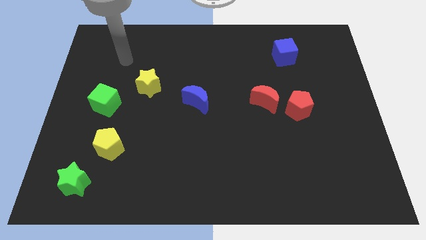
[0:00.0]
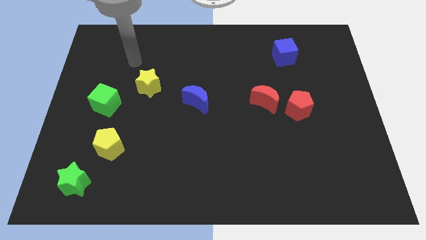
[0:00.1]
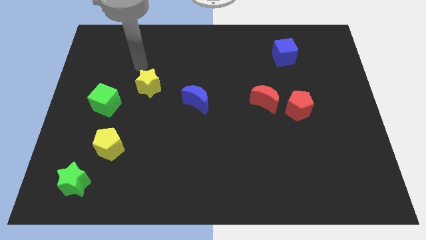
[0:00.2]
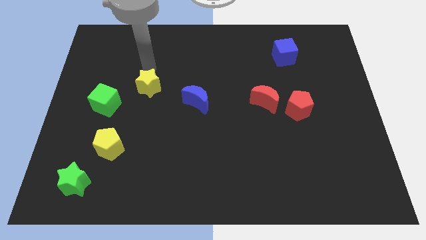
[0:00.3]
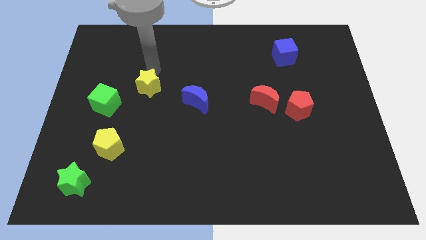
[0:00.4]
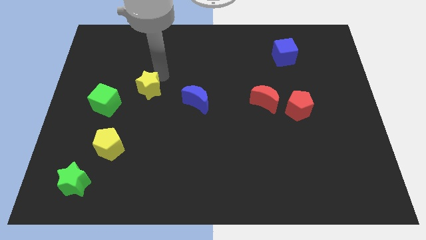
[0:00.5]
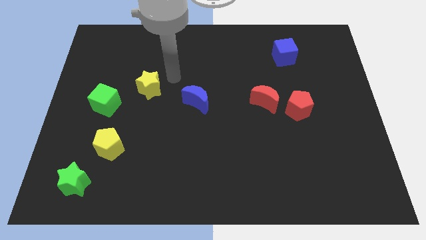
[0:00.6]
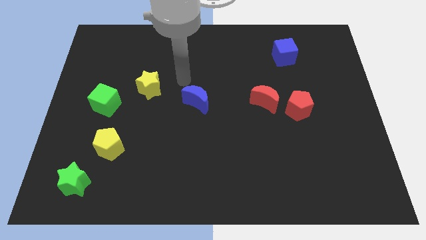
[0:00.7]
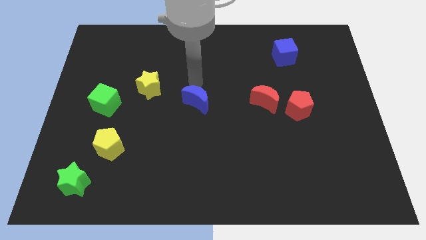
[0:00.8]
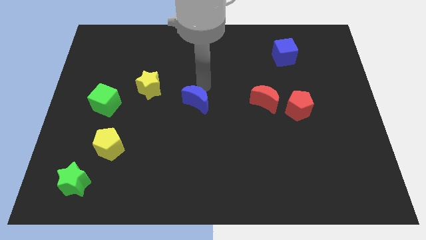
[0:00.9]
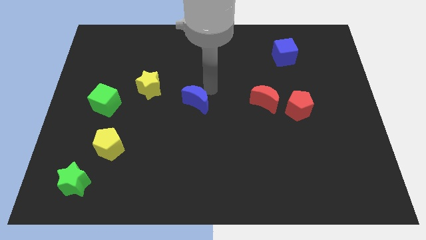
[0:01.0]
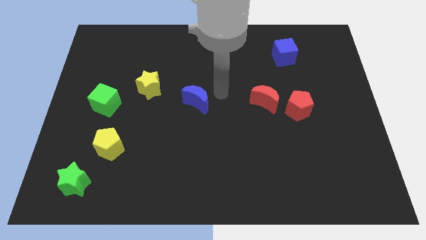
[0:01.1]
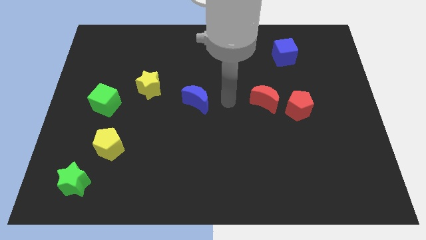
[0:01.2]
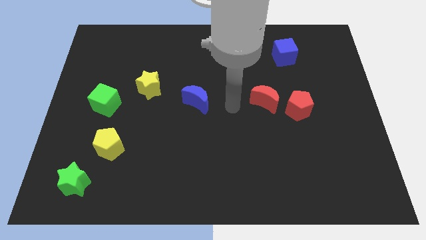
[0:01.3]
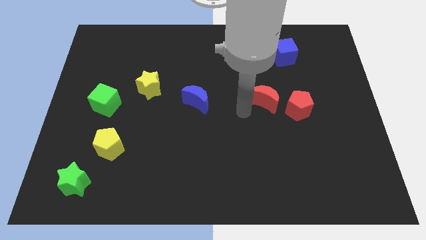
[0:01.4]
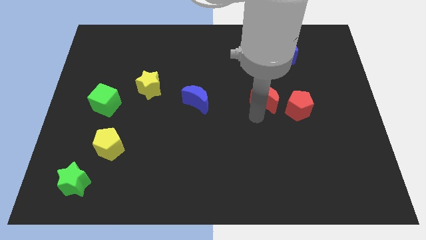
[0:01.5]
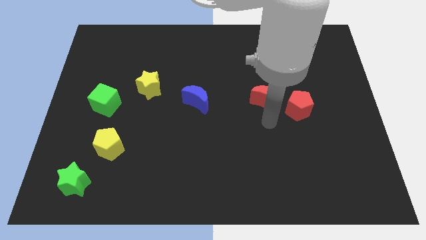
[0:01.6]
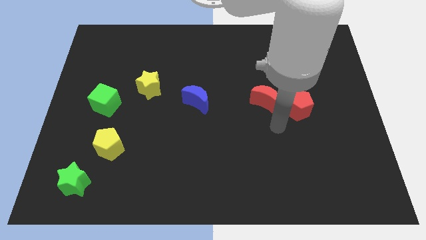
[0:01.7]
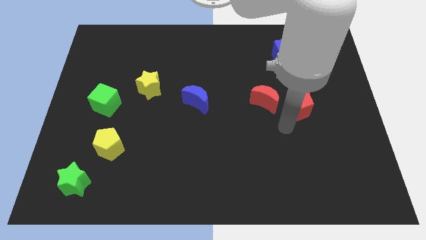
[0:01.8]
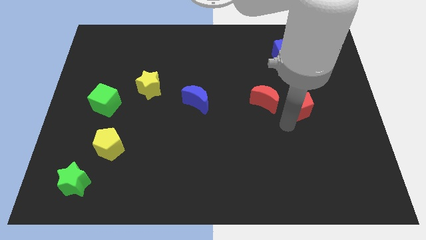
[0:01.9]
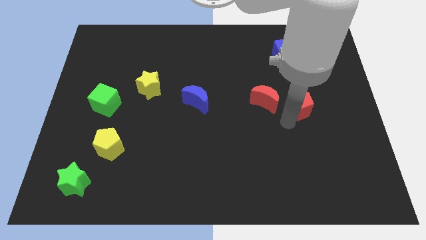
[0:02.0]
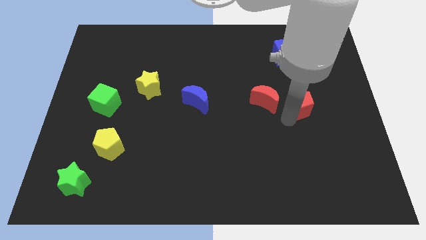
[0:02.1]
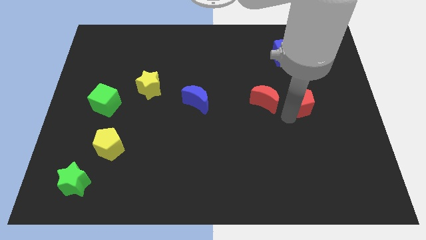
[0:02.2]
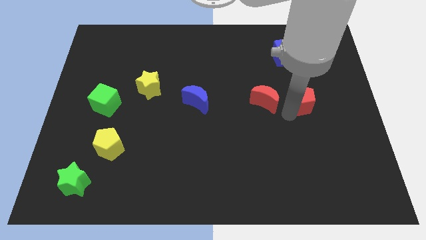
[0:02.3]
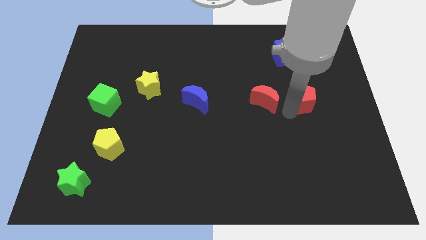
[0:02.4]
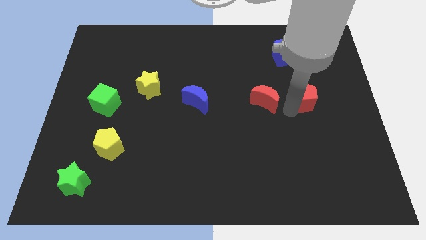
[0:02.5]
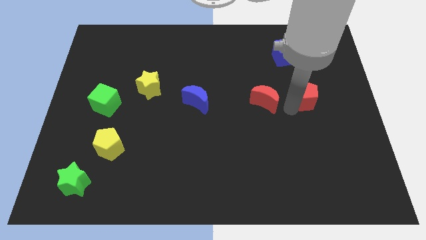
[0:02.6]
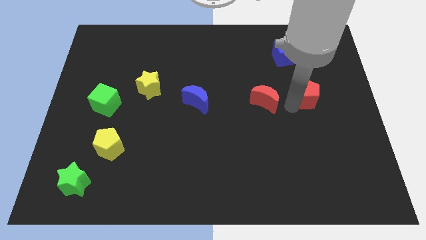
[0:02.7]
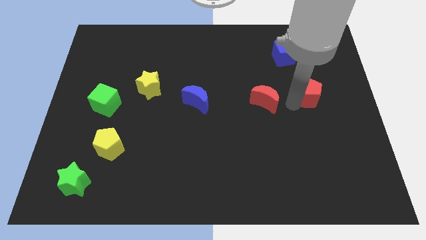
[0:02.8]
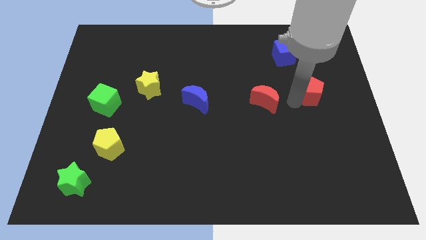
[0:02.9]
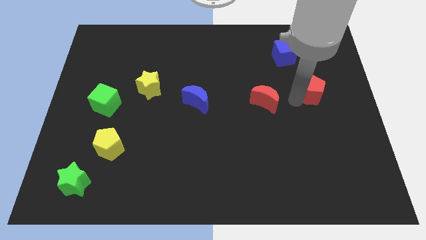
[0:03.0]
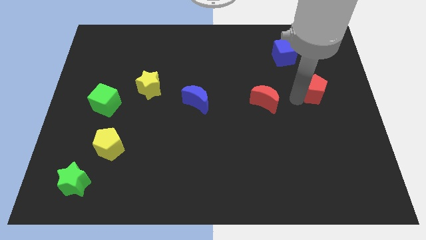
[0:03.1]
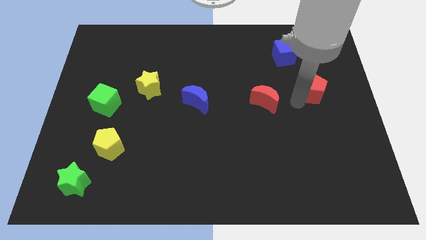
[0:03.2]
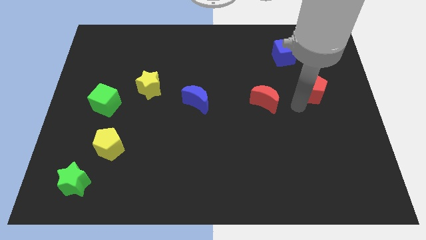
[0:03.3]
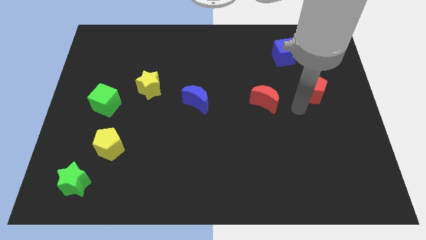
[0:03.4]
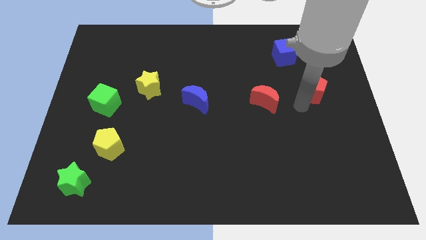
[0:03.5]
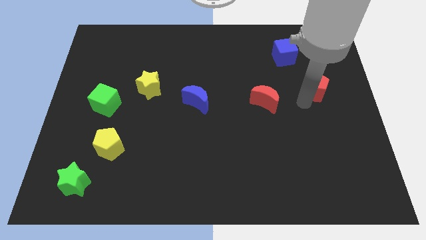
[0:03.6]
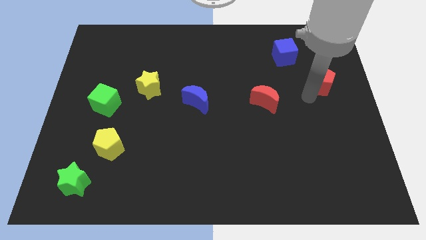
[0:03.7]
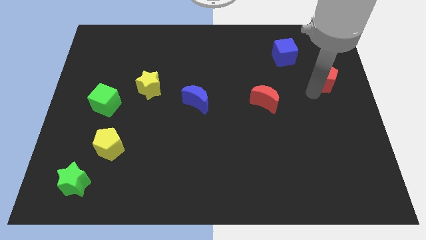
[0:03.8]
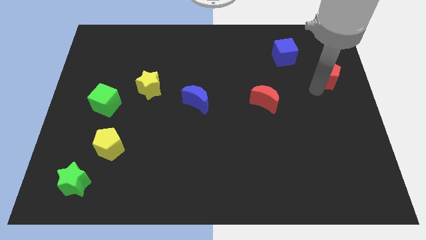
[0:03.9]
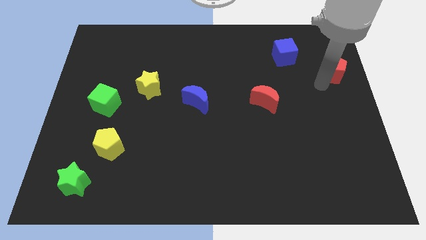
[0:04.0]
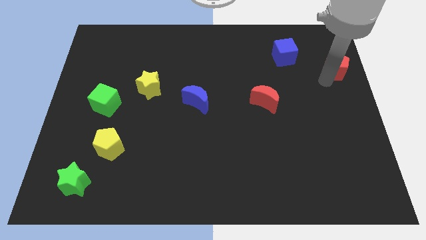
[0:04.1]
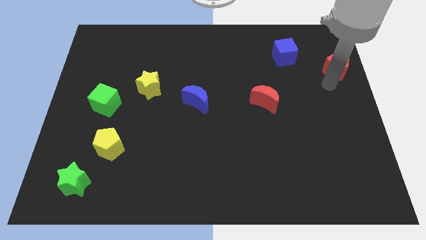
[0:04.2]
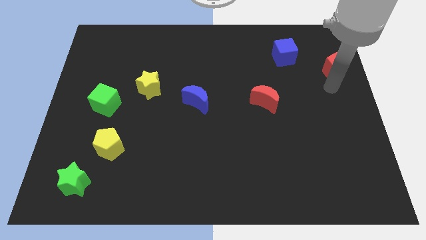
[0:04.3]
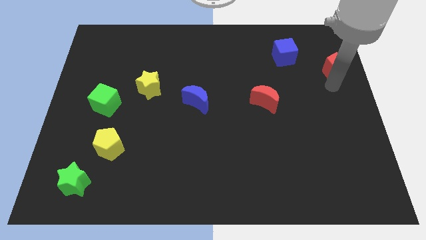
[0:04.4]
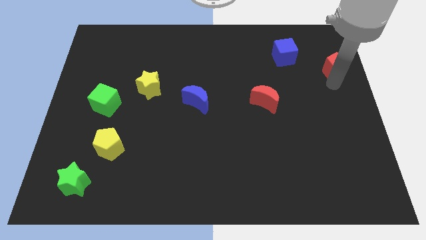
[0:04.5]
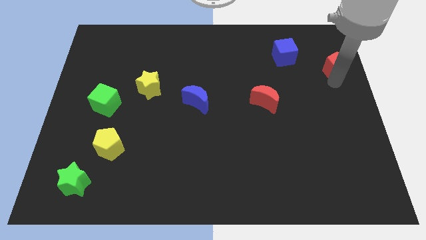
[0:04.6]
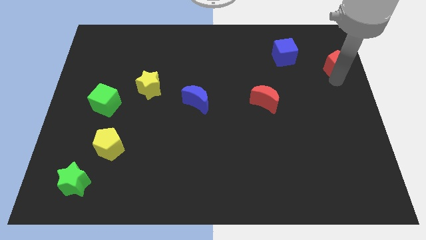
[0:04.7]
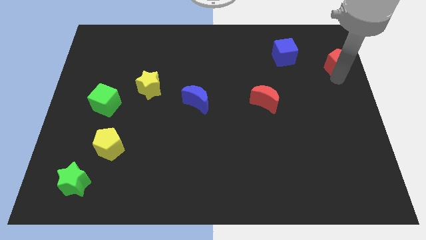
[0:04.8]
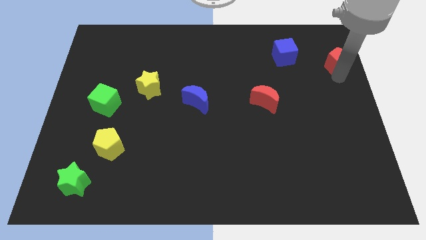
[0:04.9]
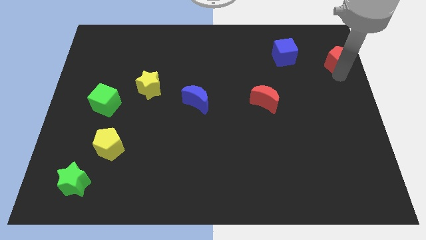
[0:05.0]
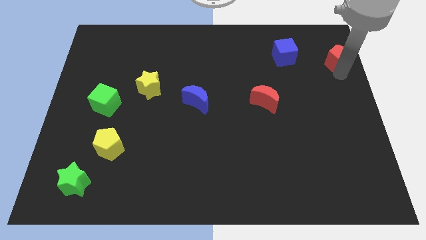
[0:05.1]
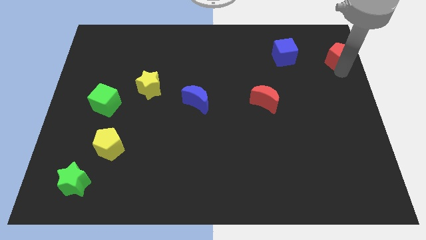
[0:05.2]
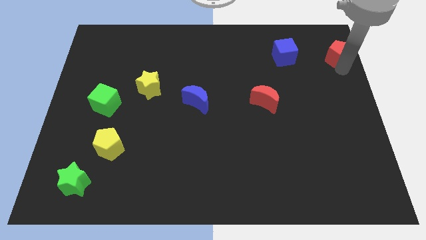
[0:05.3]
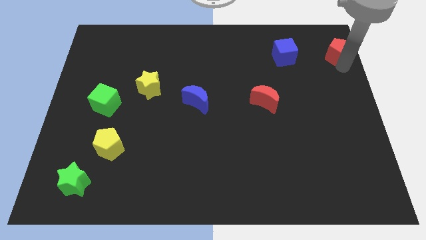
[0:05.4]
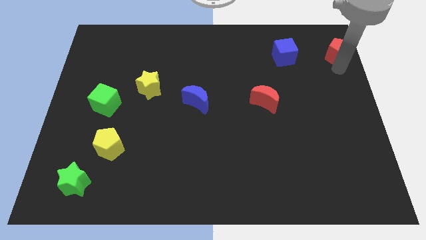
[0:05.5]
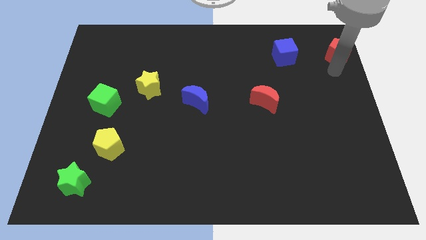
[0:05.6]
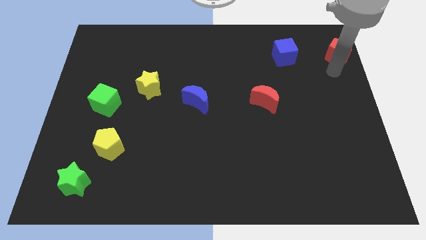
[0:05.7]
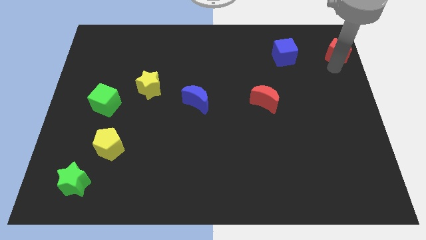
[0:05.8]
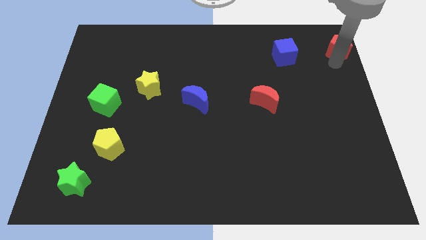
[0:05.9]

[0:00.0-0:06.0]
push the red pentagon to the upper right corner

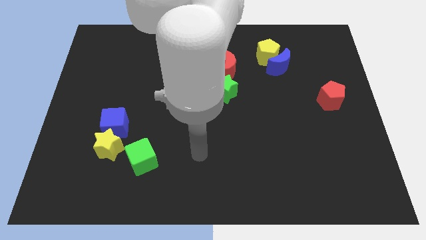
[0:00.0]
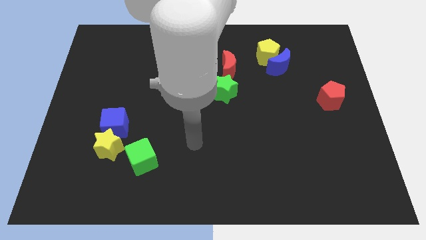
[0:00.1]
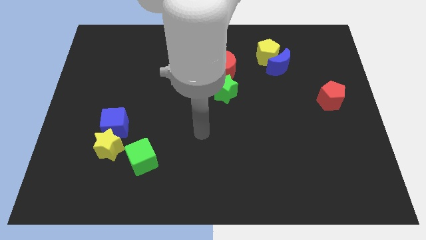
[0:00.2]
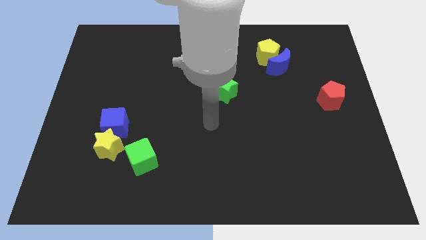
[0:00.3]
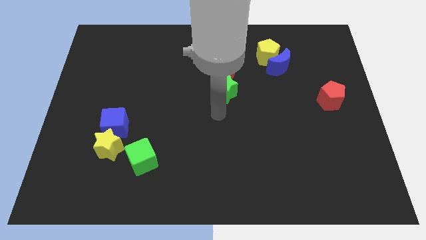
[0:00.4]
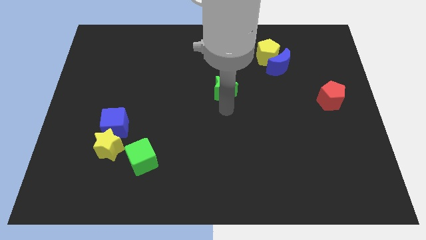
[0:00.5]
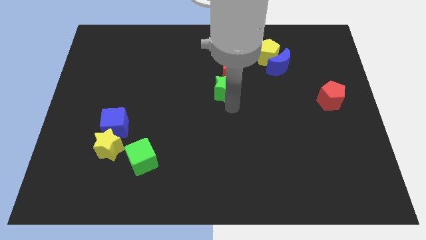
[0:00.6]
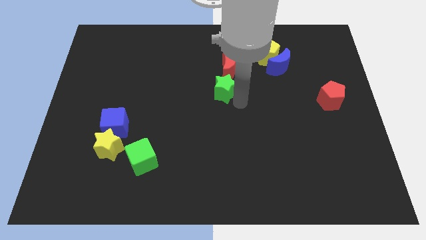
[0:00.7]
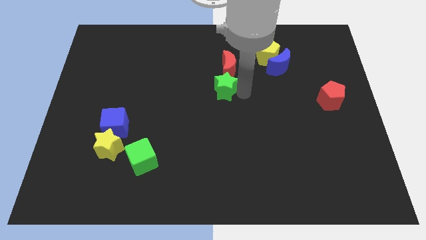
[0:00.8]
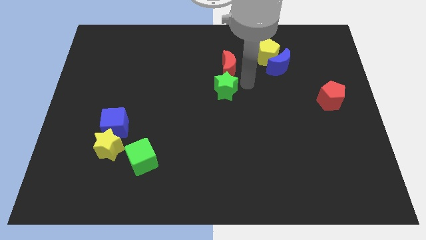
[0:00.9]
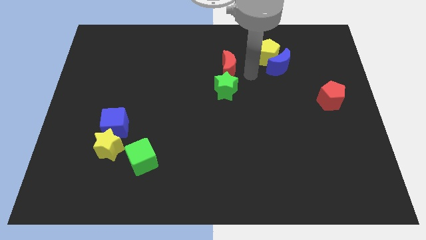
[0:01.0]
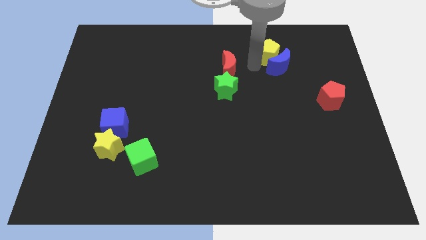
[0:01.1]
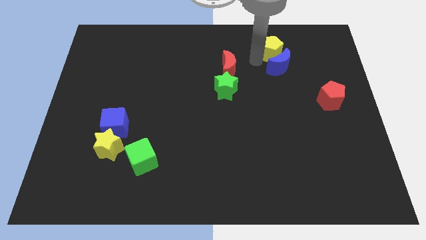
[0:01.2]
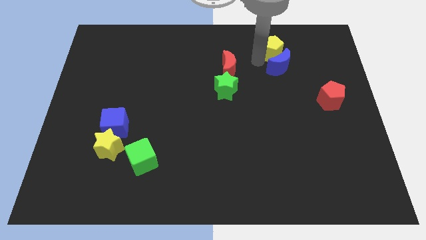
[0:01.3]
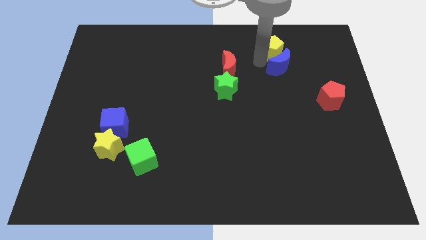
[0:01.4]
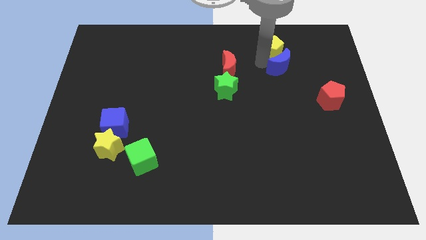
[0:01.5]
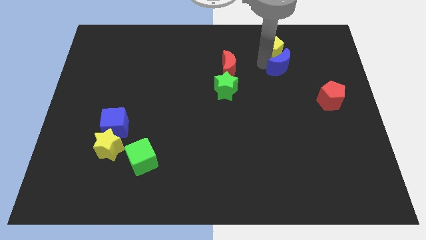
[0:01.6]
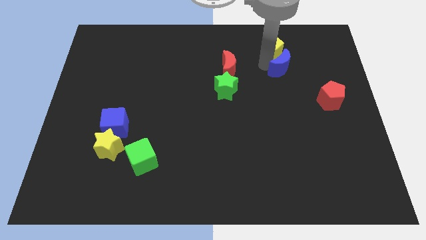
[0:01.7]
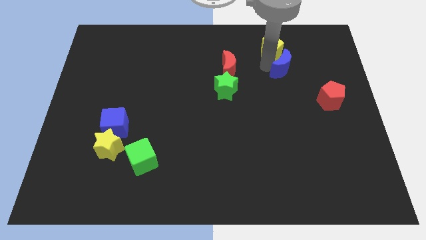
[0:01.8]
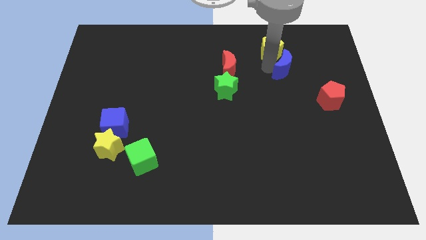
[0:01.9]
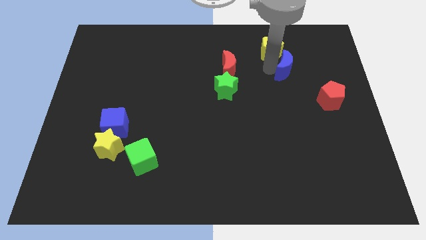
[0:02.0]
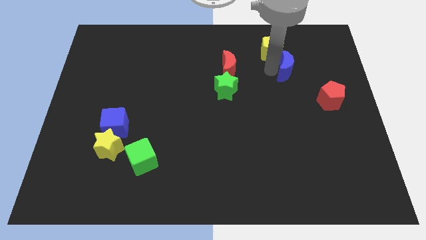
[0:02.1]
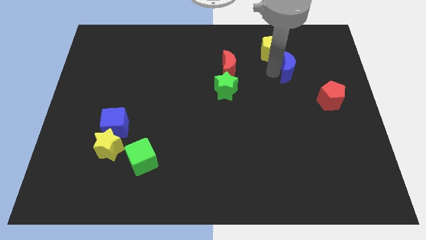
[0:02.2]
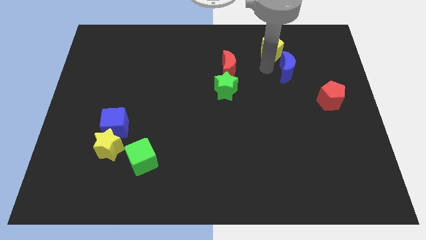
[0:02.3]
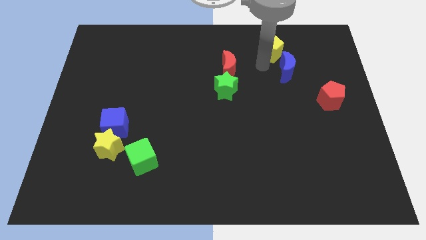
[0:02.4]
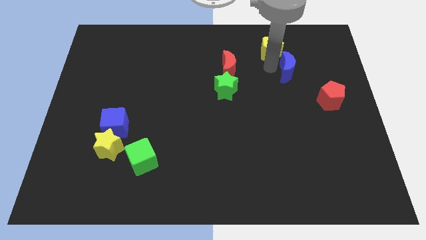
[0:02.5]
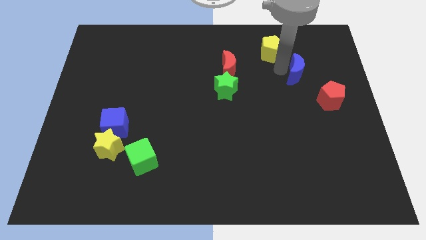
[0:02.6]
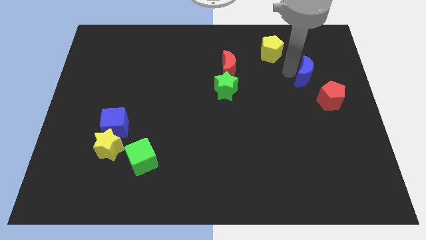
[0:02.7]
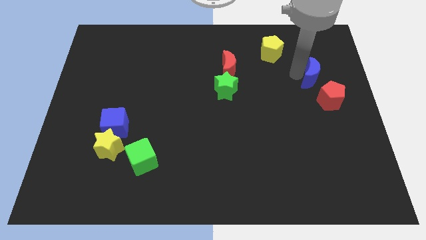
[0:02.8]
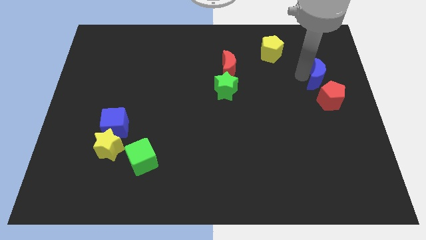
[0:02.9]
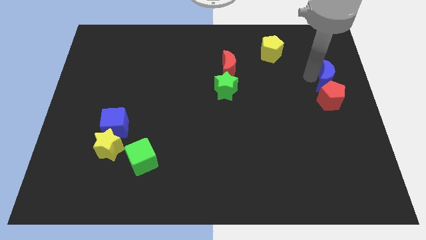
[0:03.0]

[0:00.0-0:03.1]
slide the blue moon to the right side of the board
